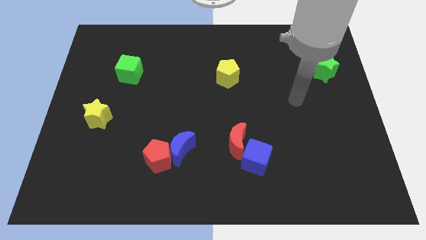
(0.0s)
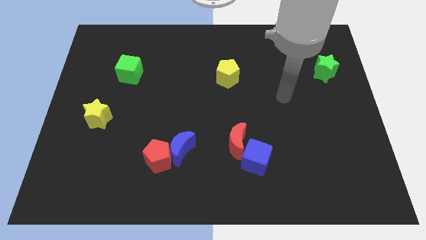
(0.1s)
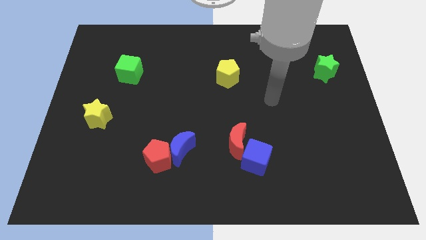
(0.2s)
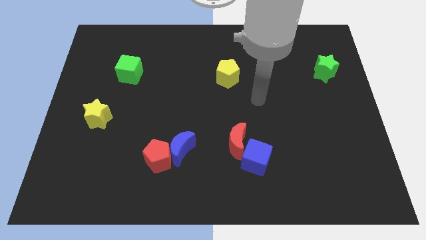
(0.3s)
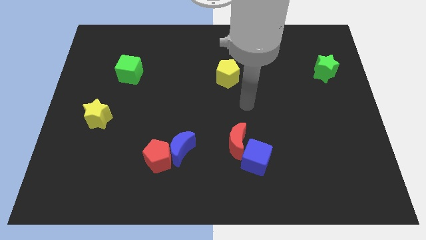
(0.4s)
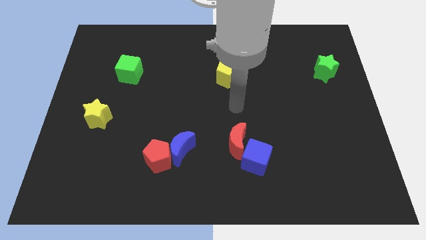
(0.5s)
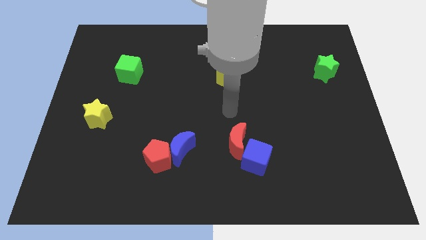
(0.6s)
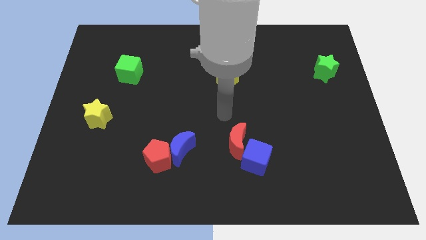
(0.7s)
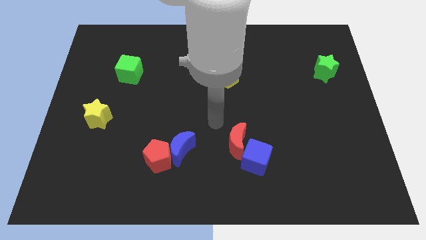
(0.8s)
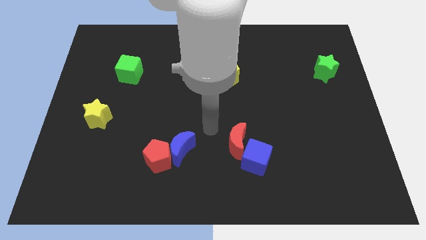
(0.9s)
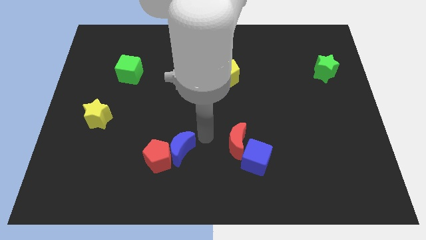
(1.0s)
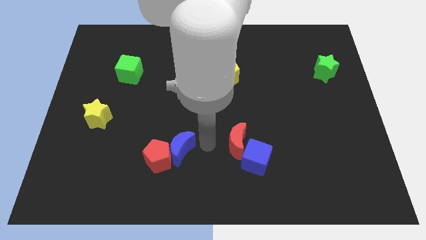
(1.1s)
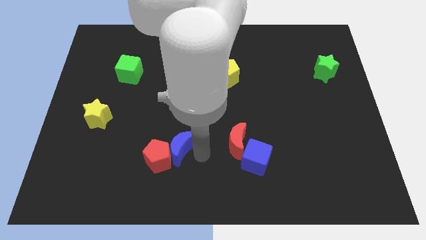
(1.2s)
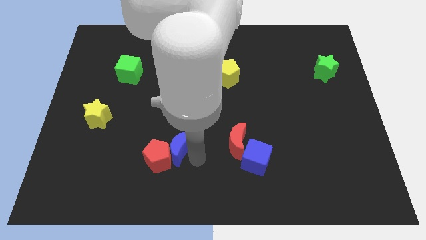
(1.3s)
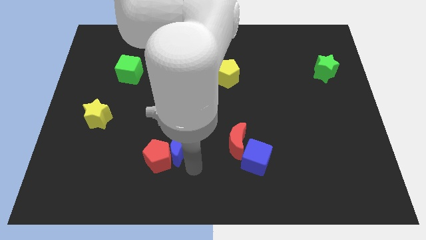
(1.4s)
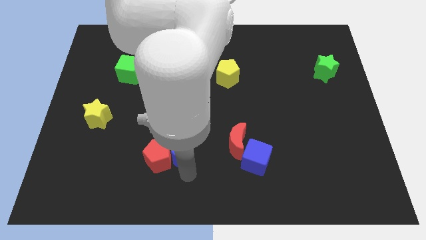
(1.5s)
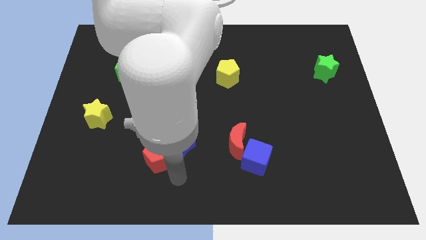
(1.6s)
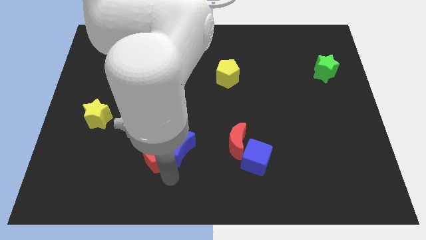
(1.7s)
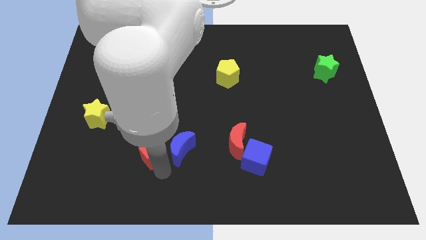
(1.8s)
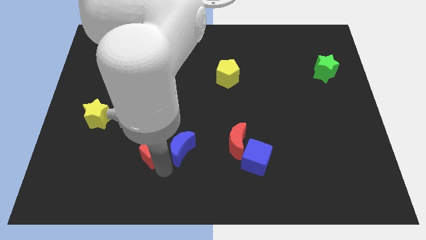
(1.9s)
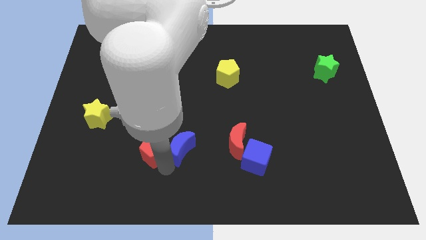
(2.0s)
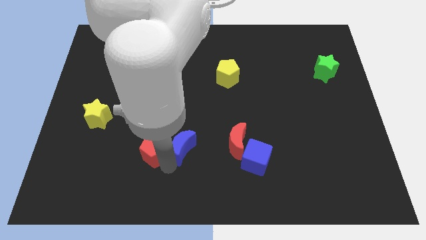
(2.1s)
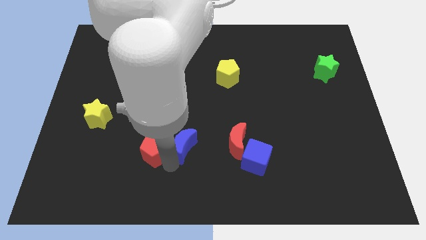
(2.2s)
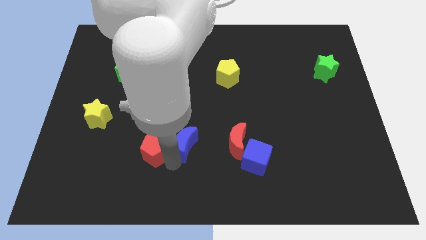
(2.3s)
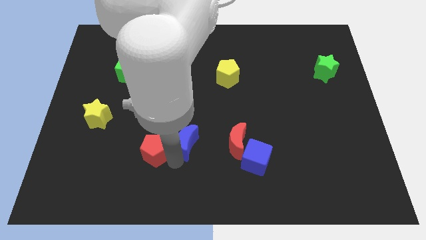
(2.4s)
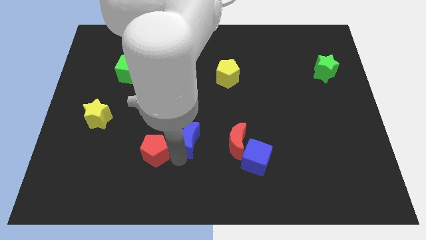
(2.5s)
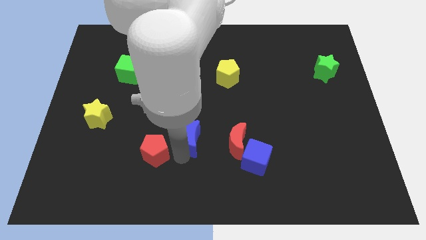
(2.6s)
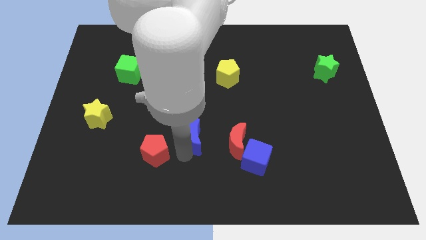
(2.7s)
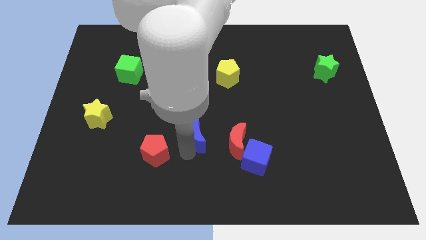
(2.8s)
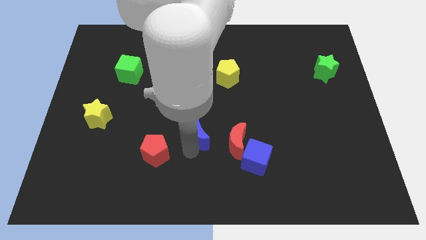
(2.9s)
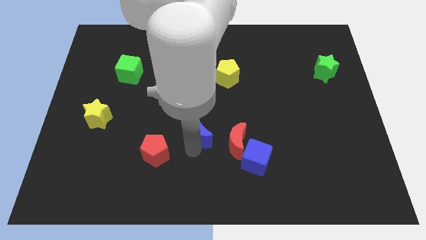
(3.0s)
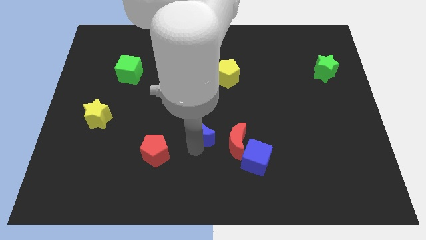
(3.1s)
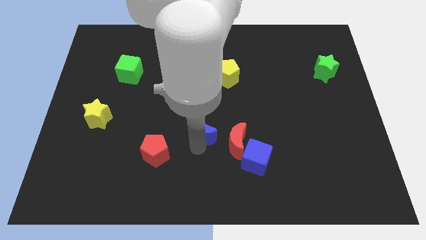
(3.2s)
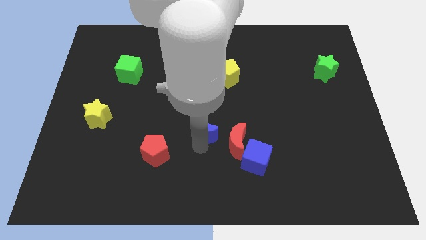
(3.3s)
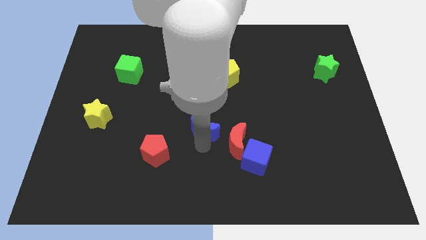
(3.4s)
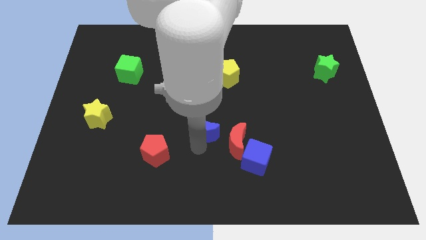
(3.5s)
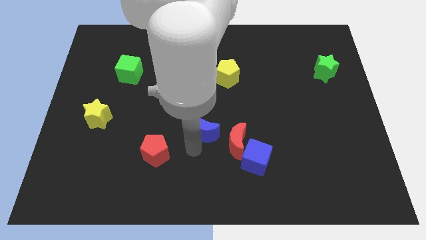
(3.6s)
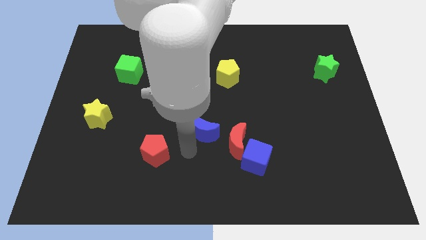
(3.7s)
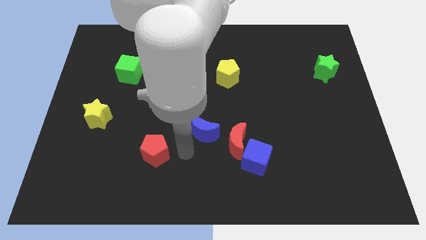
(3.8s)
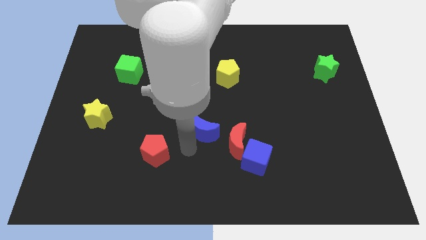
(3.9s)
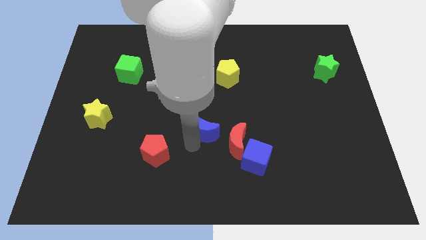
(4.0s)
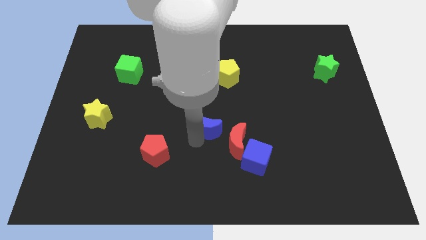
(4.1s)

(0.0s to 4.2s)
move the blue moon up and right a bit

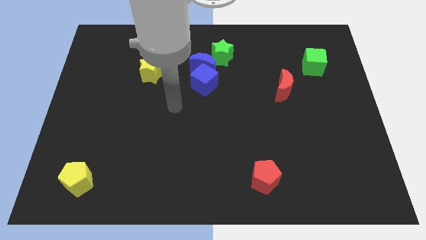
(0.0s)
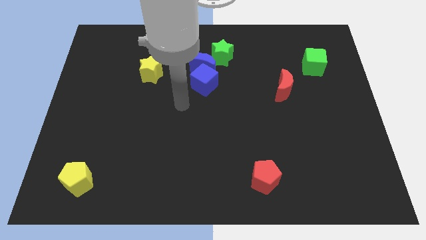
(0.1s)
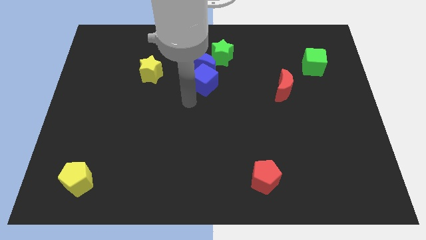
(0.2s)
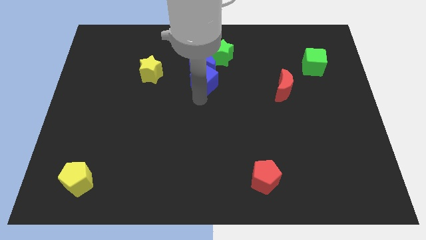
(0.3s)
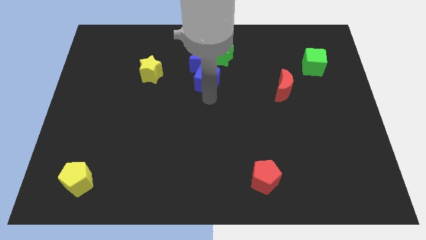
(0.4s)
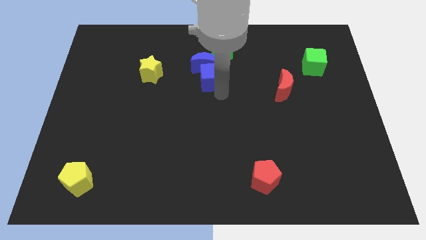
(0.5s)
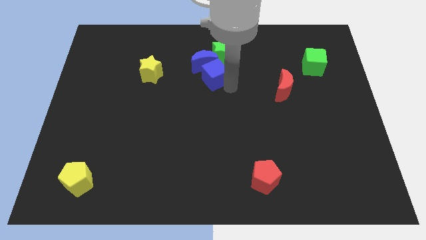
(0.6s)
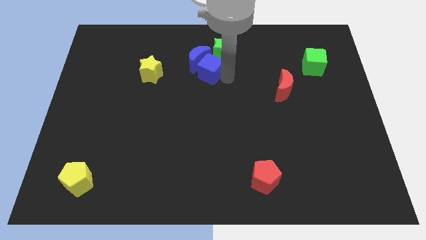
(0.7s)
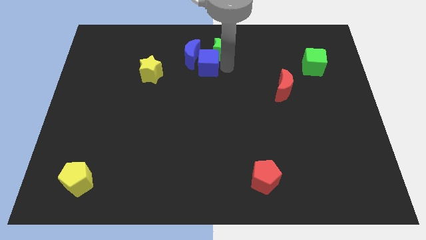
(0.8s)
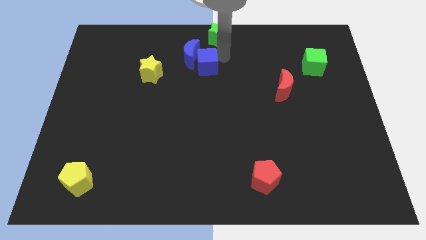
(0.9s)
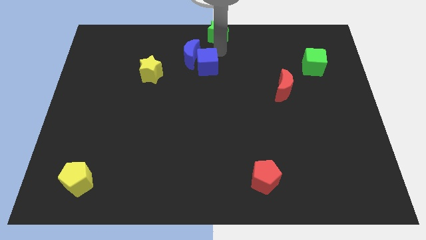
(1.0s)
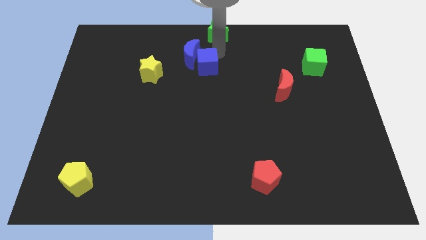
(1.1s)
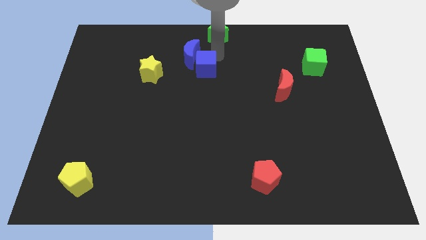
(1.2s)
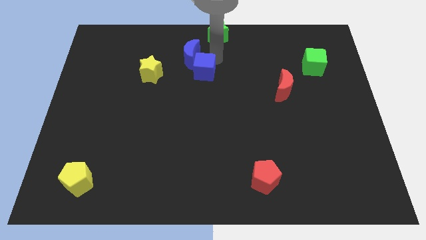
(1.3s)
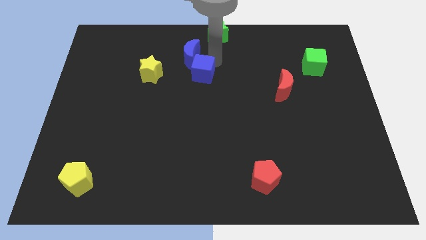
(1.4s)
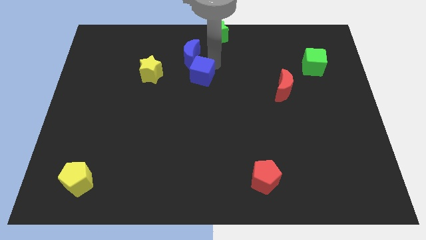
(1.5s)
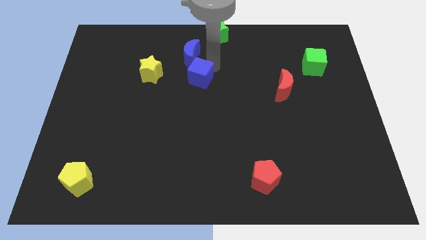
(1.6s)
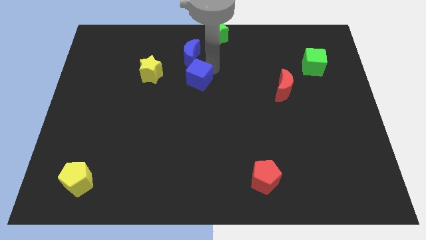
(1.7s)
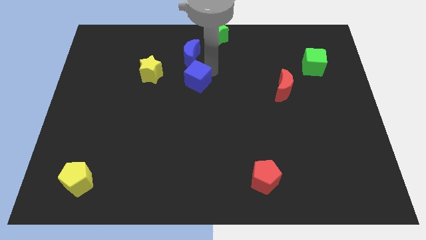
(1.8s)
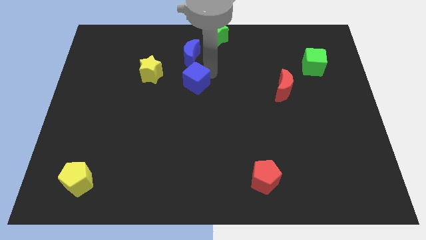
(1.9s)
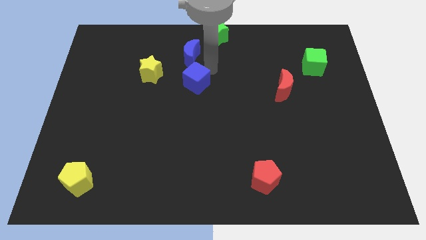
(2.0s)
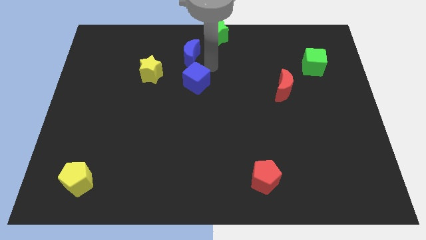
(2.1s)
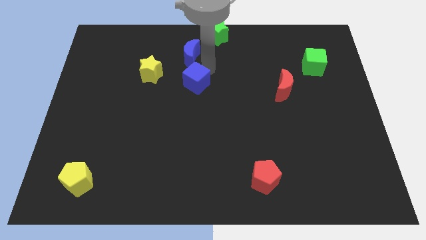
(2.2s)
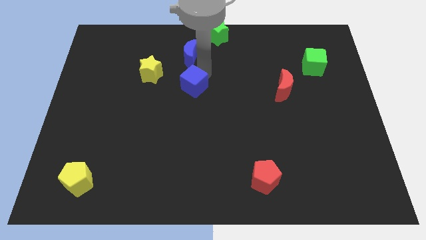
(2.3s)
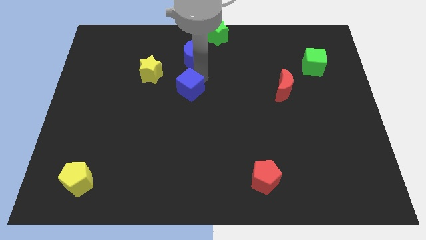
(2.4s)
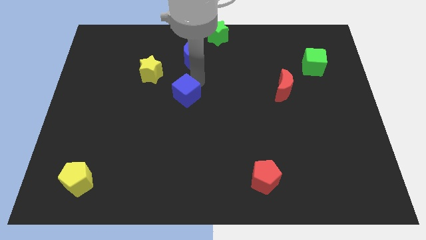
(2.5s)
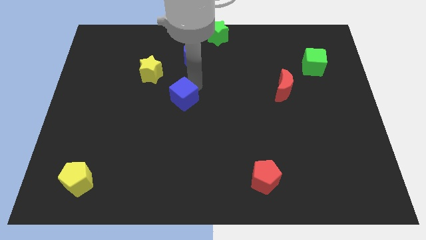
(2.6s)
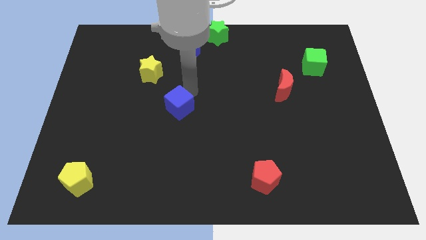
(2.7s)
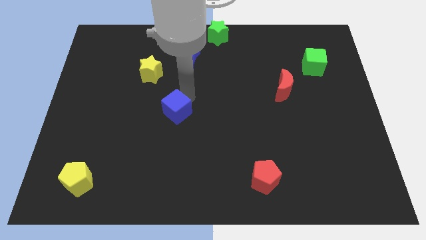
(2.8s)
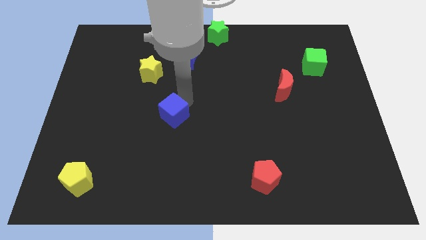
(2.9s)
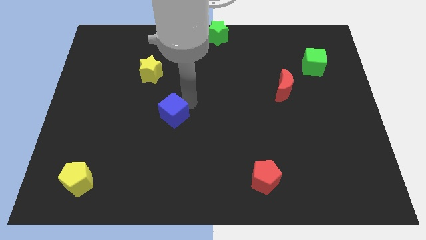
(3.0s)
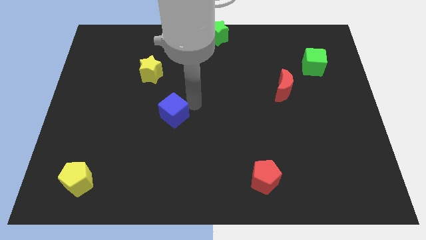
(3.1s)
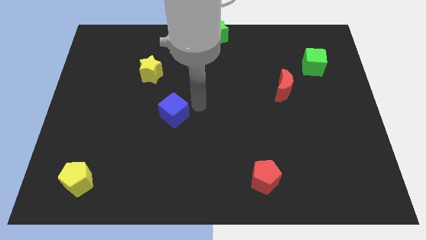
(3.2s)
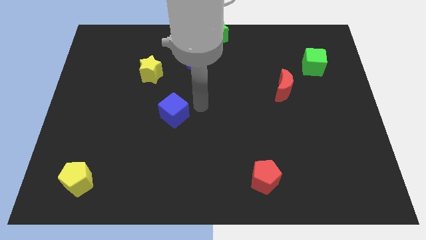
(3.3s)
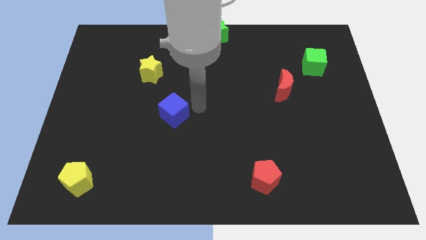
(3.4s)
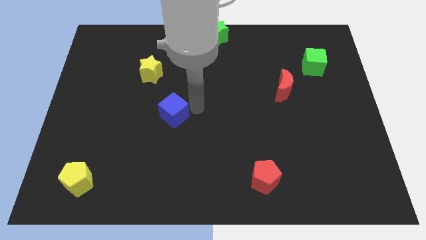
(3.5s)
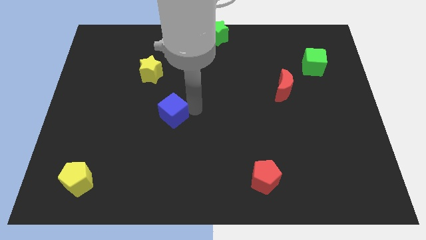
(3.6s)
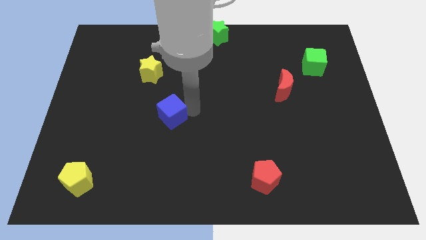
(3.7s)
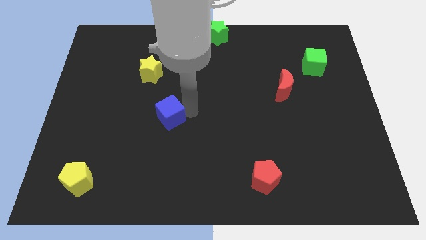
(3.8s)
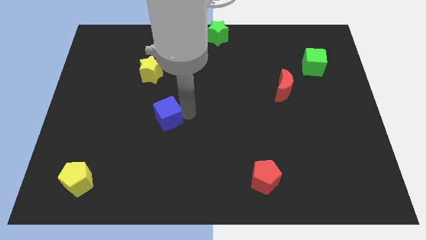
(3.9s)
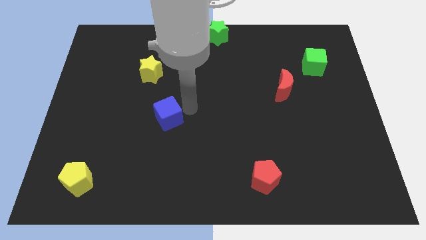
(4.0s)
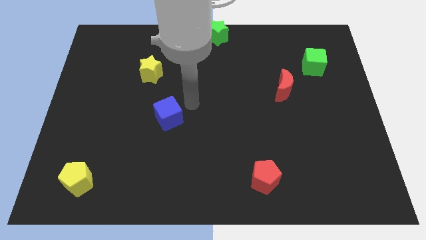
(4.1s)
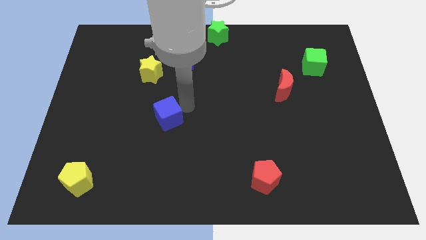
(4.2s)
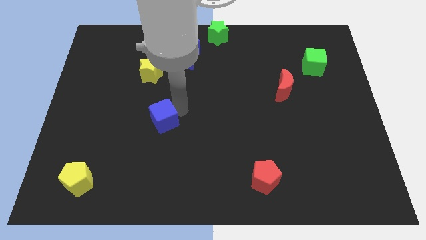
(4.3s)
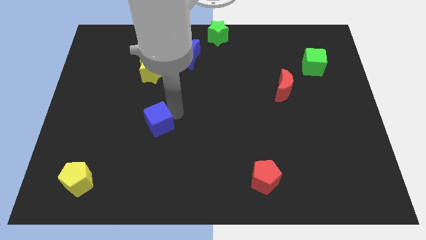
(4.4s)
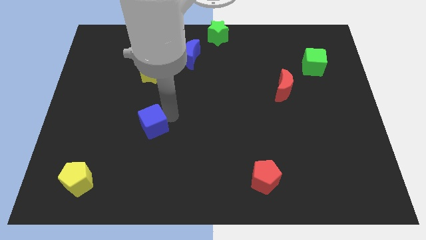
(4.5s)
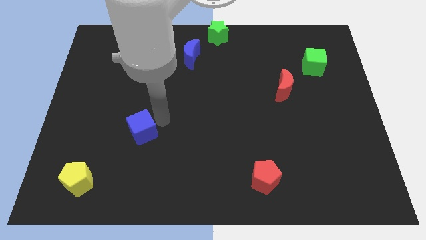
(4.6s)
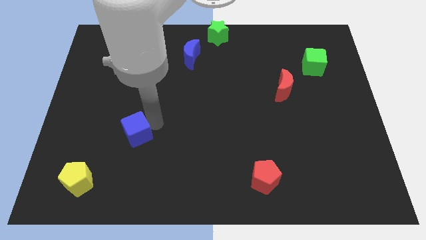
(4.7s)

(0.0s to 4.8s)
slide the blue cube down and then left
